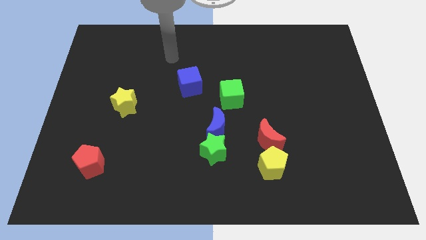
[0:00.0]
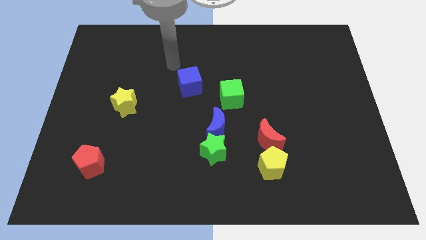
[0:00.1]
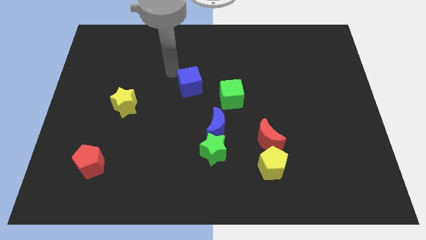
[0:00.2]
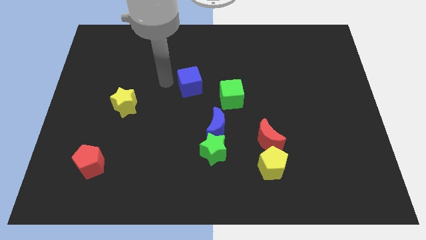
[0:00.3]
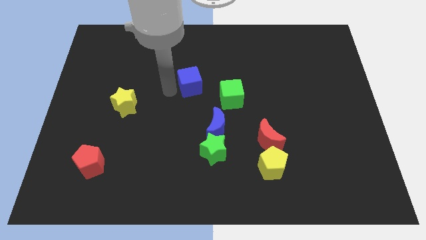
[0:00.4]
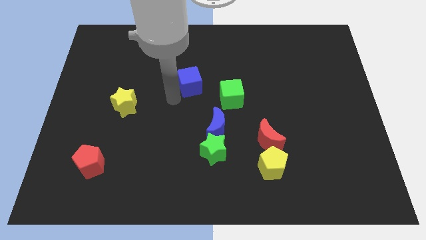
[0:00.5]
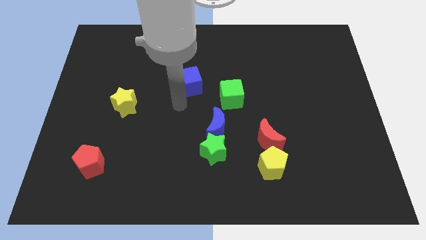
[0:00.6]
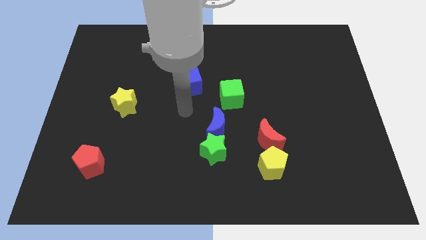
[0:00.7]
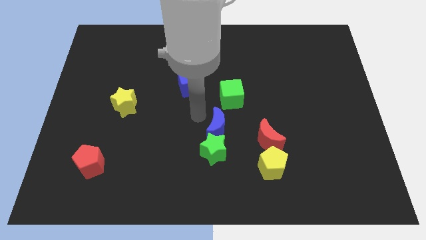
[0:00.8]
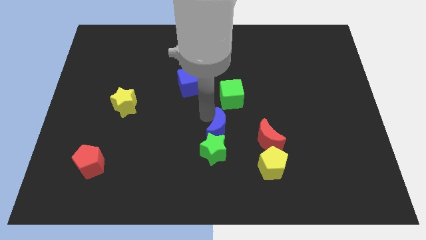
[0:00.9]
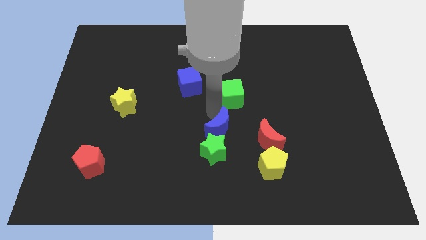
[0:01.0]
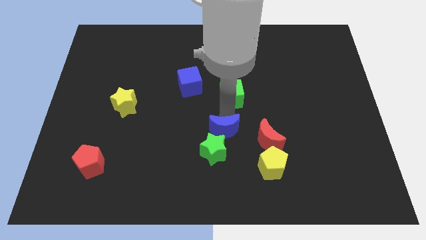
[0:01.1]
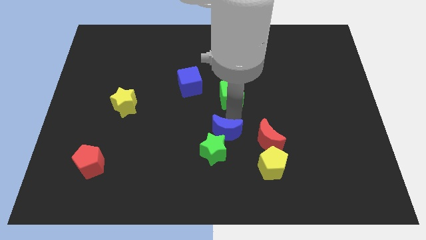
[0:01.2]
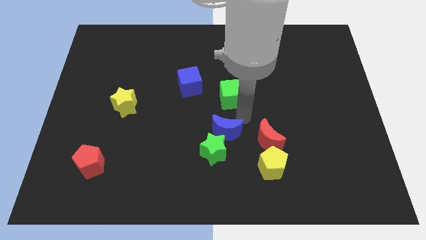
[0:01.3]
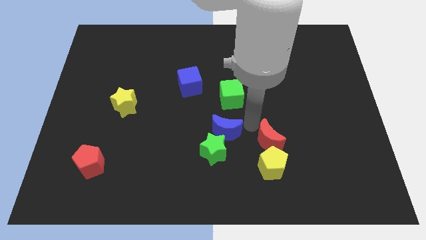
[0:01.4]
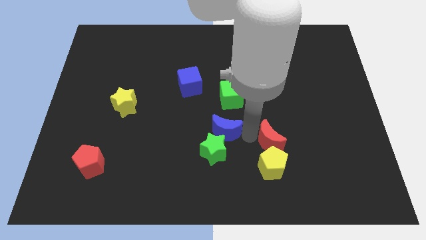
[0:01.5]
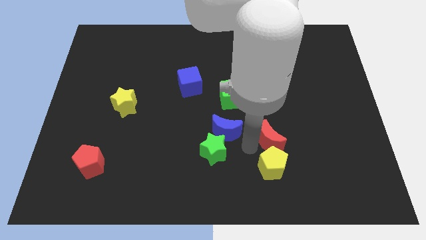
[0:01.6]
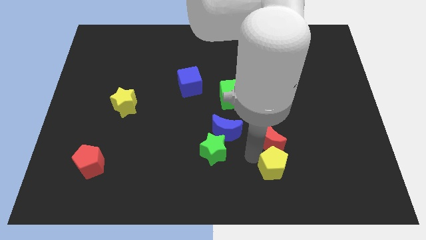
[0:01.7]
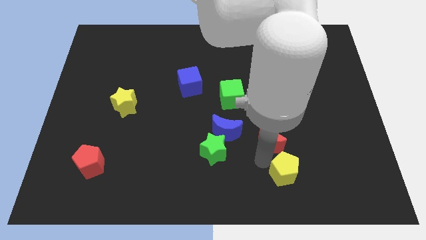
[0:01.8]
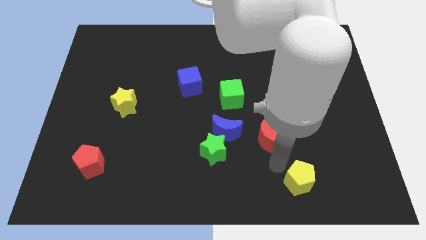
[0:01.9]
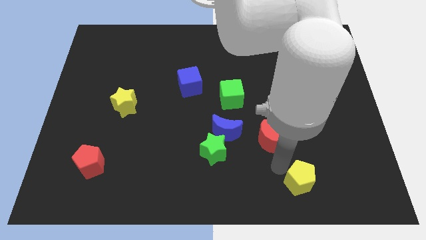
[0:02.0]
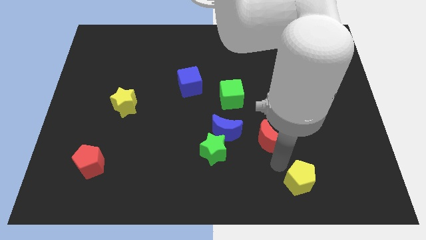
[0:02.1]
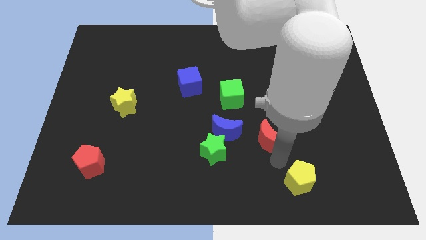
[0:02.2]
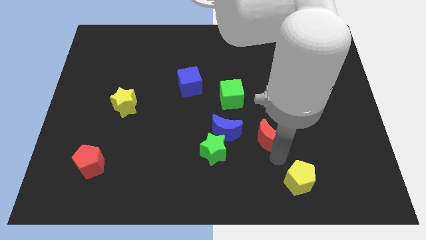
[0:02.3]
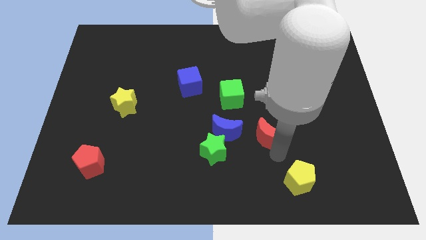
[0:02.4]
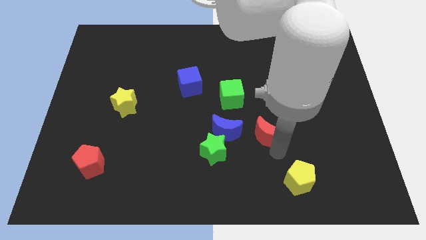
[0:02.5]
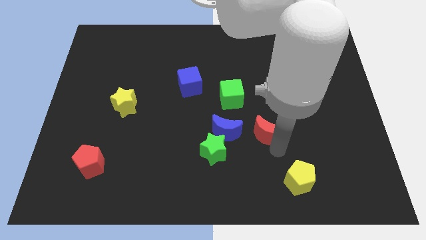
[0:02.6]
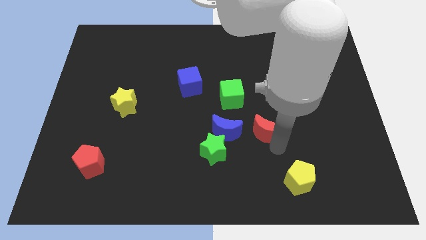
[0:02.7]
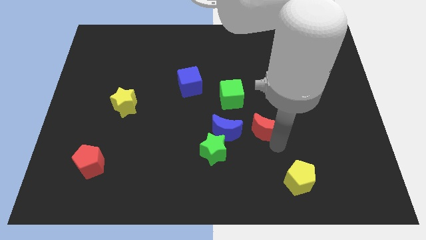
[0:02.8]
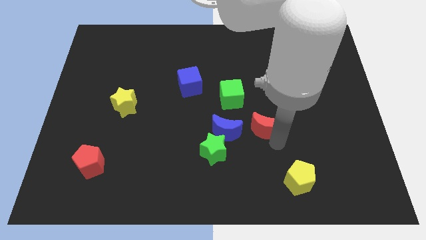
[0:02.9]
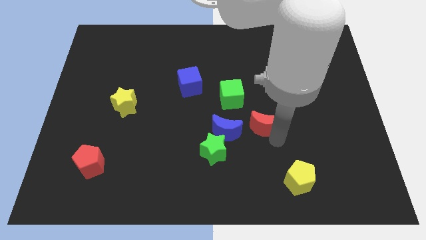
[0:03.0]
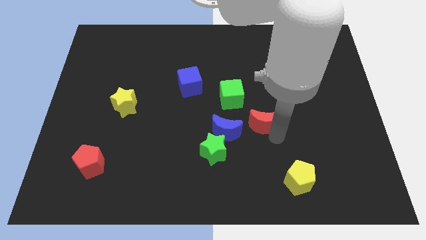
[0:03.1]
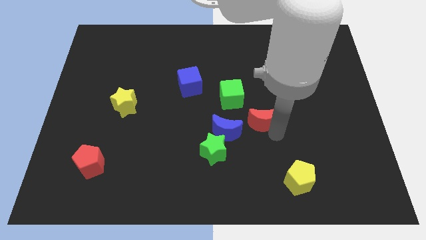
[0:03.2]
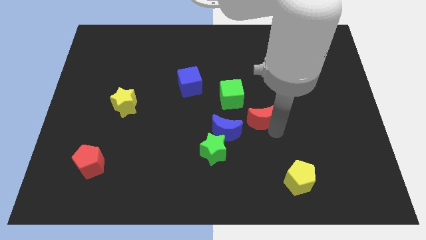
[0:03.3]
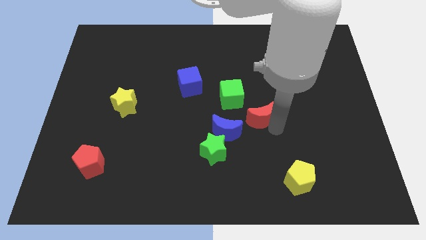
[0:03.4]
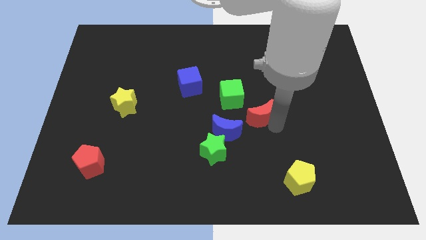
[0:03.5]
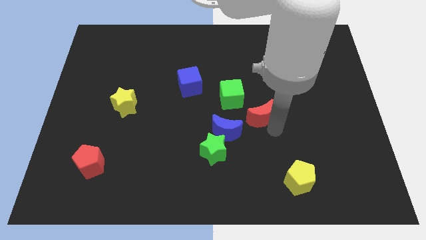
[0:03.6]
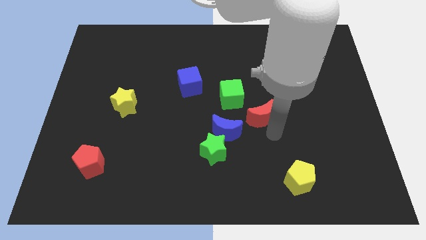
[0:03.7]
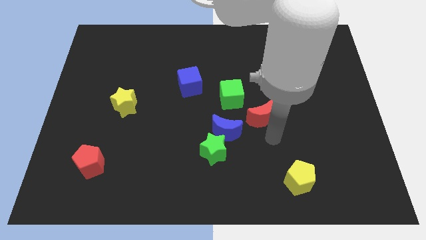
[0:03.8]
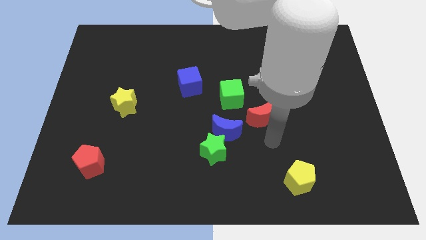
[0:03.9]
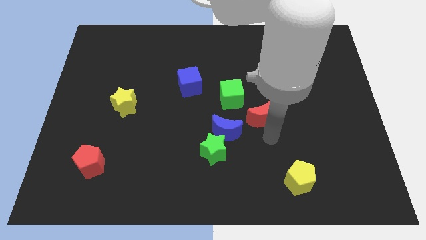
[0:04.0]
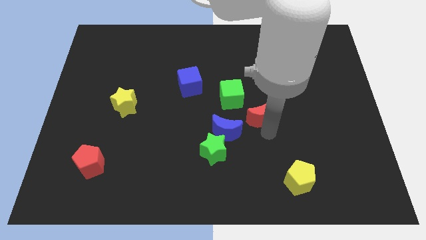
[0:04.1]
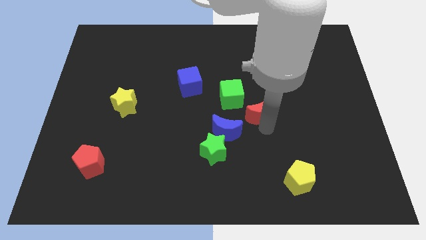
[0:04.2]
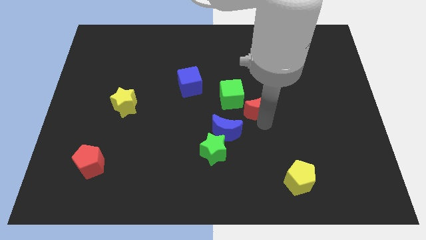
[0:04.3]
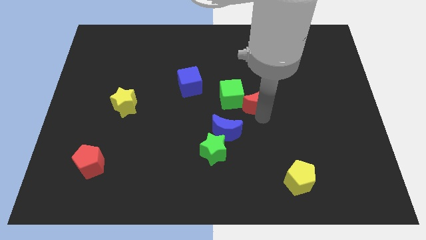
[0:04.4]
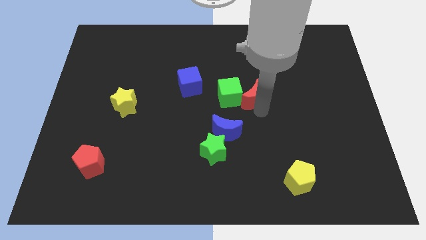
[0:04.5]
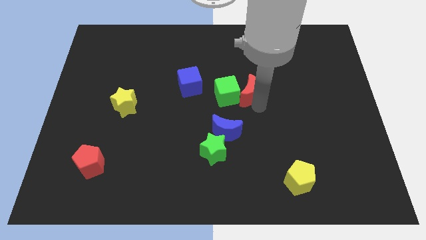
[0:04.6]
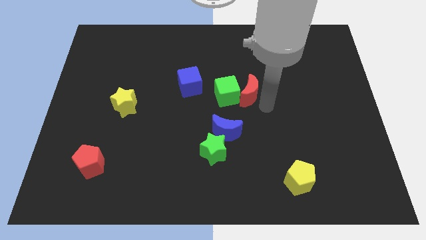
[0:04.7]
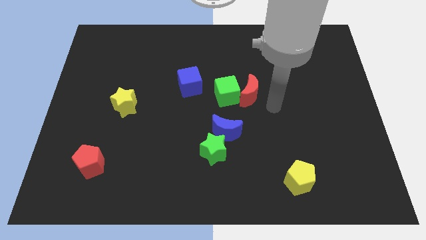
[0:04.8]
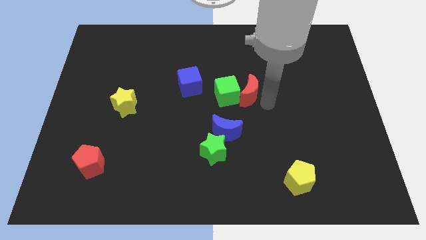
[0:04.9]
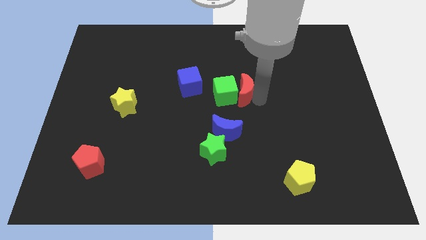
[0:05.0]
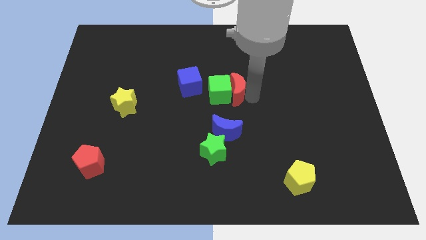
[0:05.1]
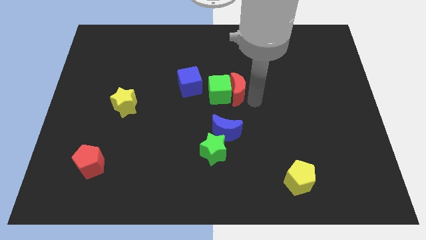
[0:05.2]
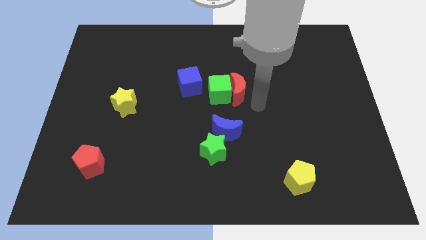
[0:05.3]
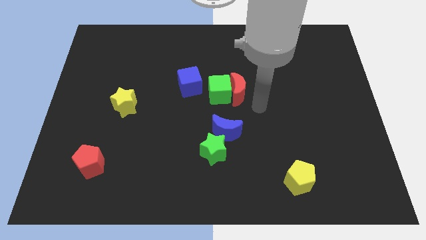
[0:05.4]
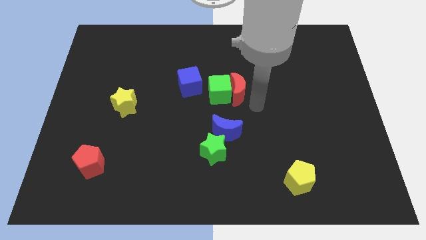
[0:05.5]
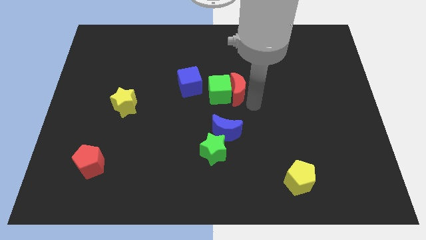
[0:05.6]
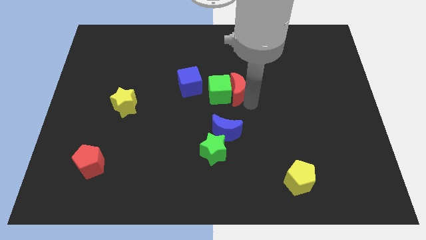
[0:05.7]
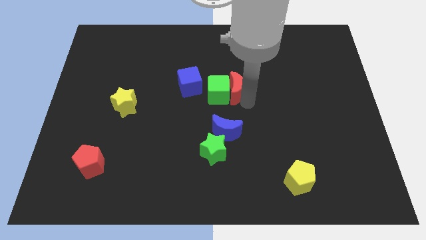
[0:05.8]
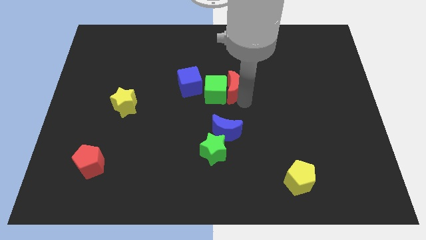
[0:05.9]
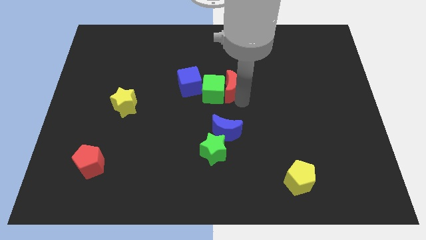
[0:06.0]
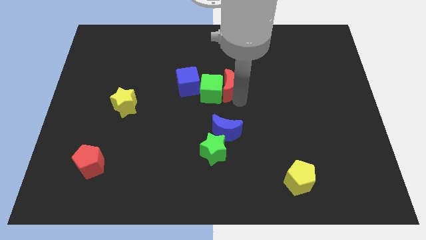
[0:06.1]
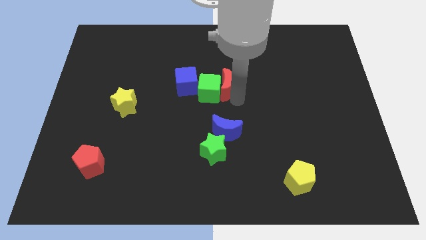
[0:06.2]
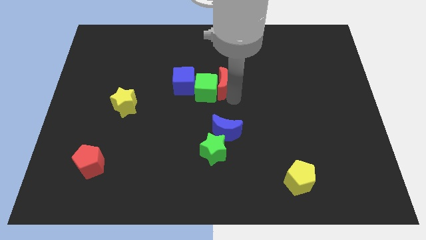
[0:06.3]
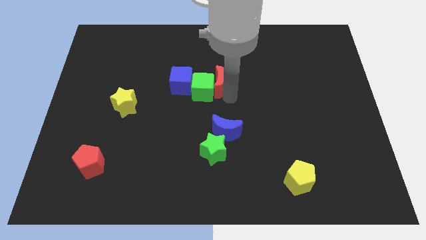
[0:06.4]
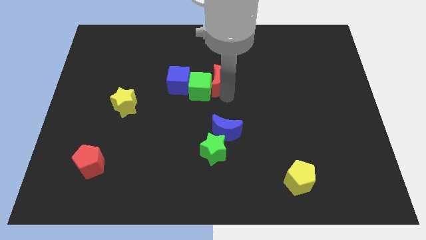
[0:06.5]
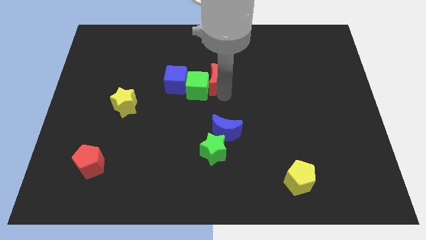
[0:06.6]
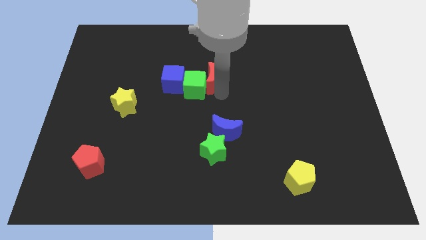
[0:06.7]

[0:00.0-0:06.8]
move the red moon upwards and left

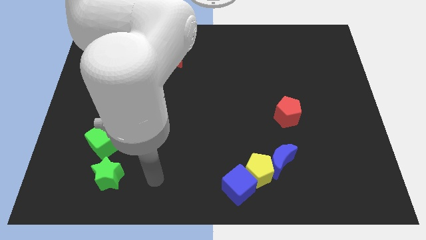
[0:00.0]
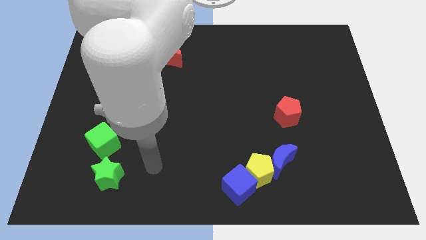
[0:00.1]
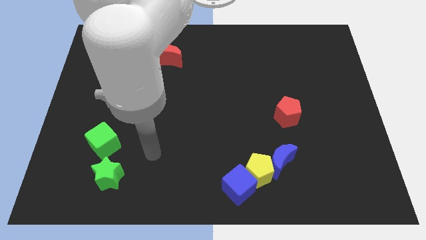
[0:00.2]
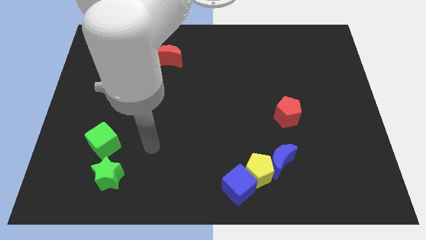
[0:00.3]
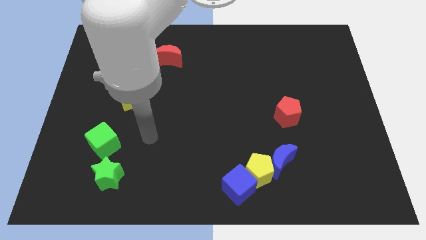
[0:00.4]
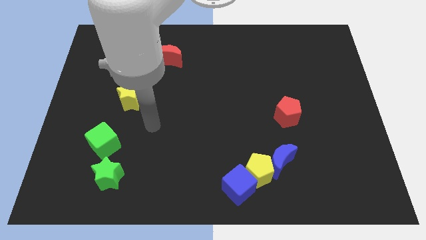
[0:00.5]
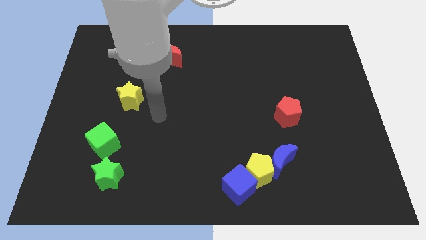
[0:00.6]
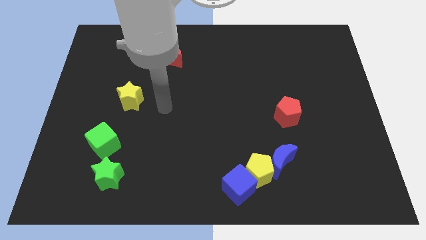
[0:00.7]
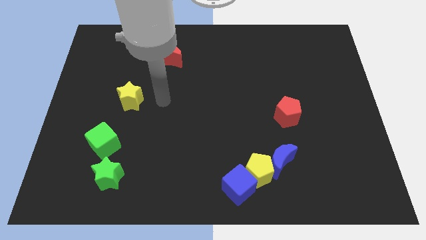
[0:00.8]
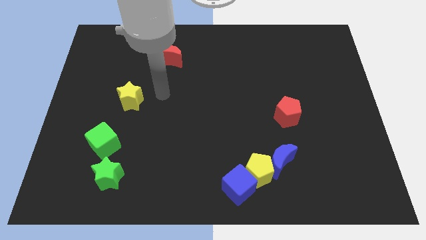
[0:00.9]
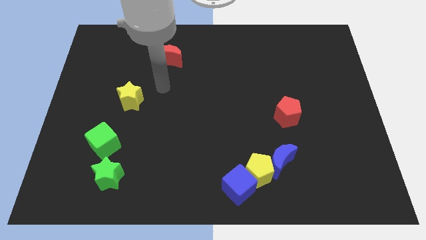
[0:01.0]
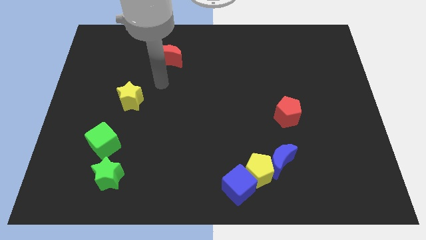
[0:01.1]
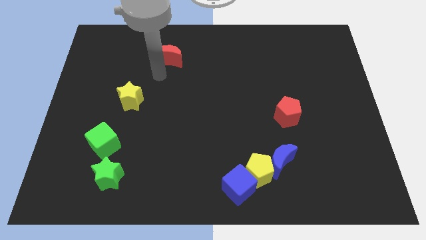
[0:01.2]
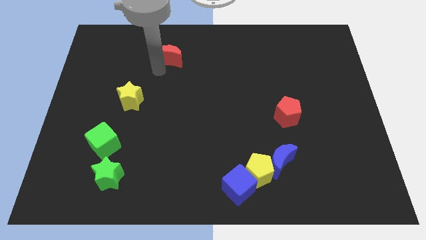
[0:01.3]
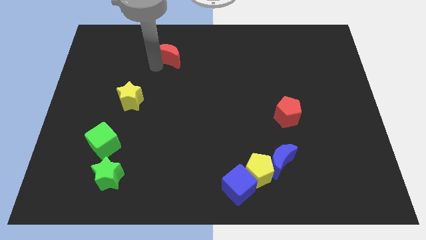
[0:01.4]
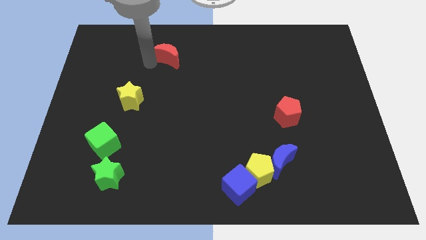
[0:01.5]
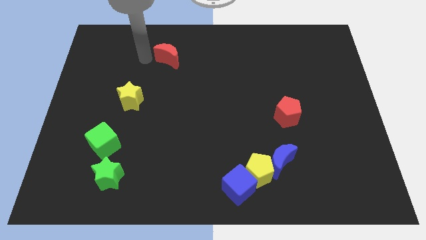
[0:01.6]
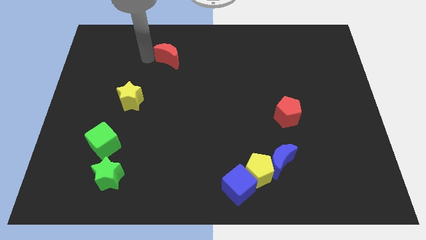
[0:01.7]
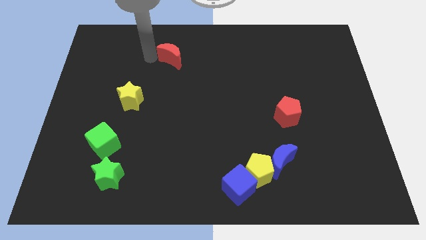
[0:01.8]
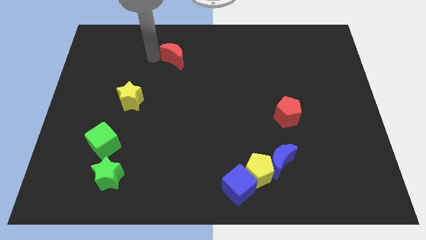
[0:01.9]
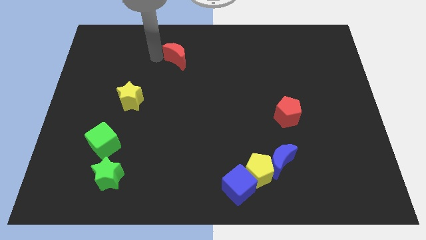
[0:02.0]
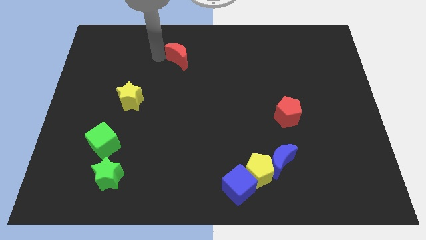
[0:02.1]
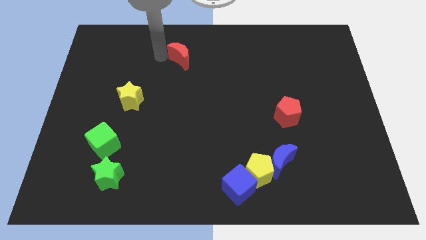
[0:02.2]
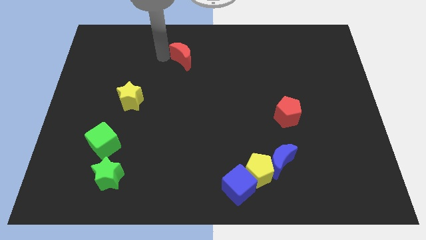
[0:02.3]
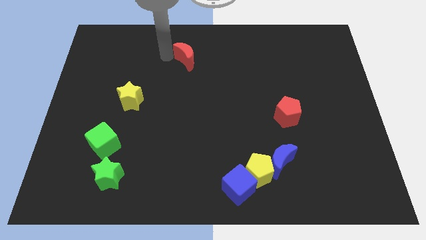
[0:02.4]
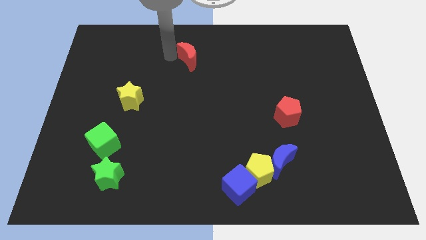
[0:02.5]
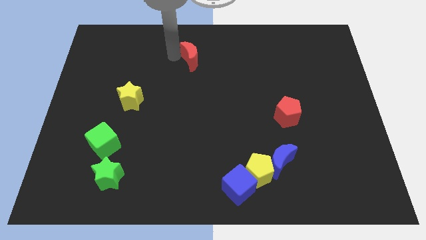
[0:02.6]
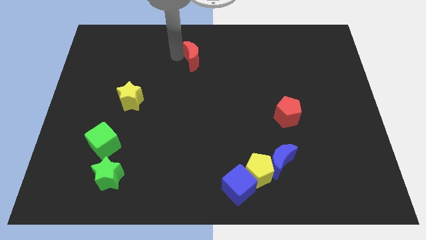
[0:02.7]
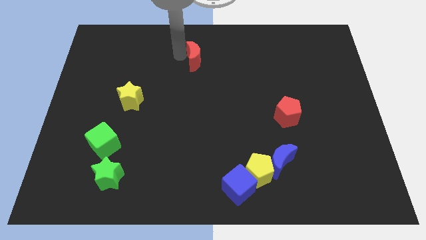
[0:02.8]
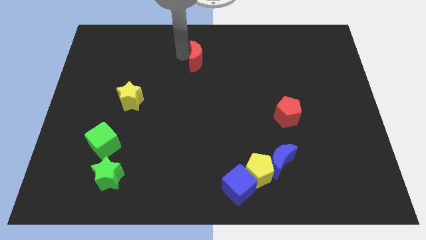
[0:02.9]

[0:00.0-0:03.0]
slightly slide the red moon right
